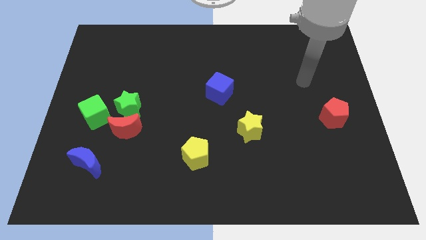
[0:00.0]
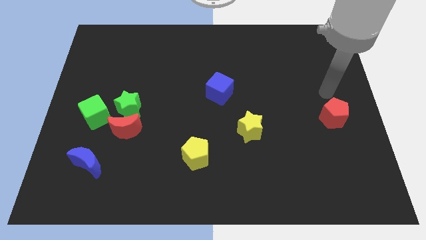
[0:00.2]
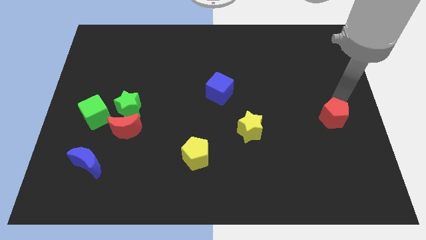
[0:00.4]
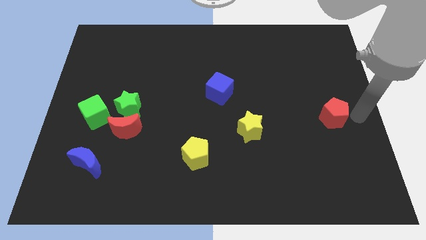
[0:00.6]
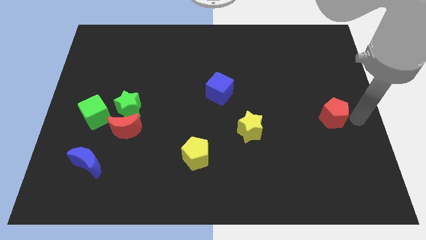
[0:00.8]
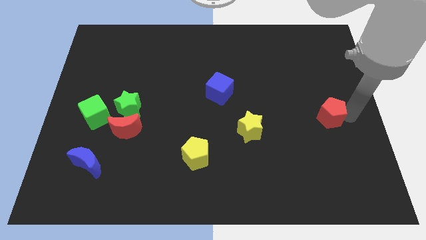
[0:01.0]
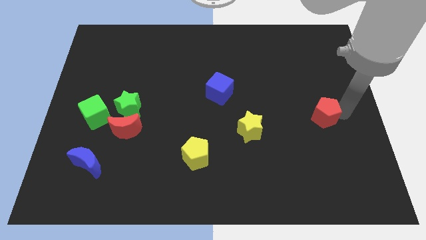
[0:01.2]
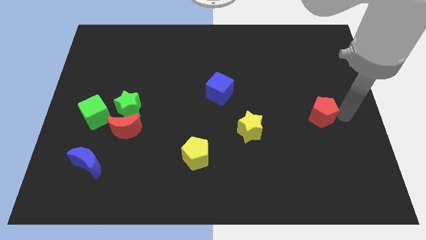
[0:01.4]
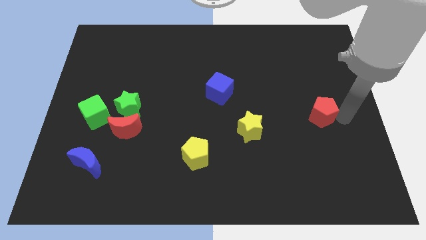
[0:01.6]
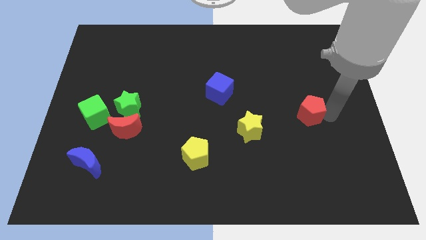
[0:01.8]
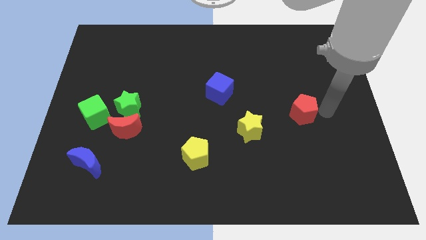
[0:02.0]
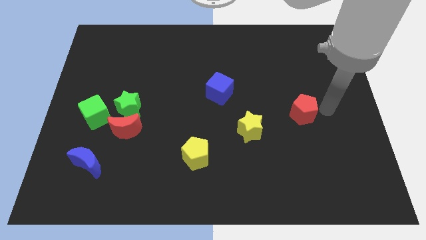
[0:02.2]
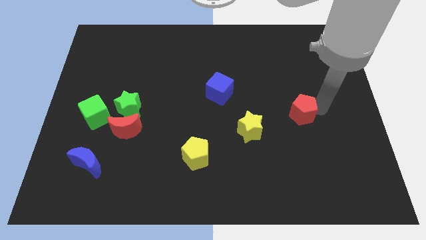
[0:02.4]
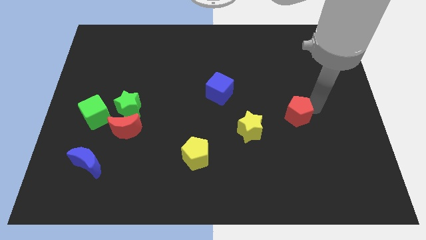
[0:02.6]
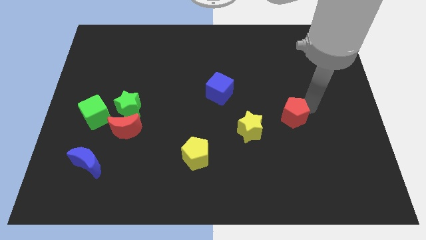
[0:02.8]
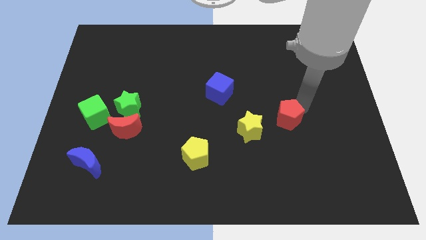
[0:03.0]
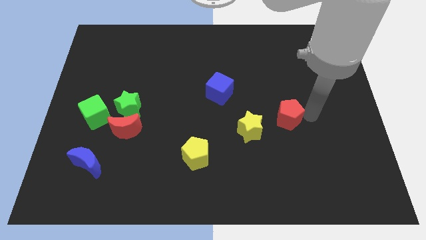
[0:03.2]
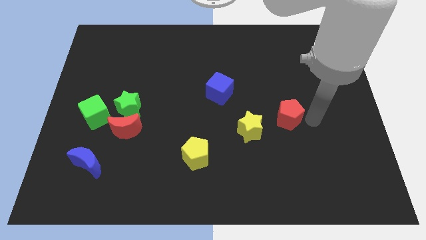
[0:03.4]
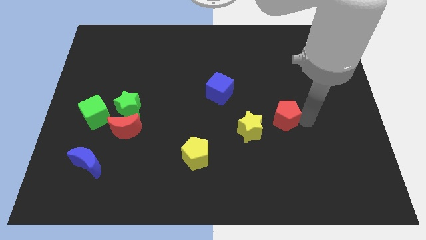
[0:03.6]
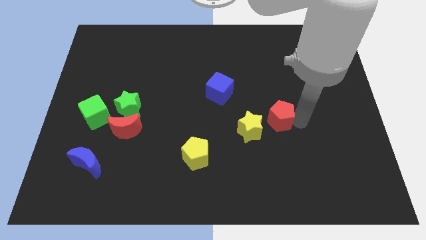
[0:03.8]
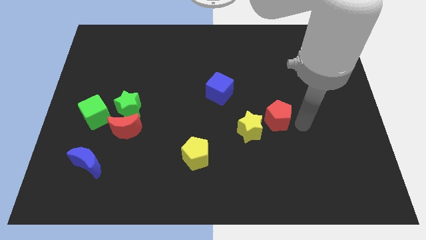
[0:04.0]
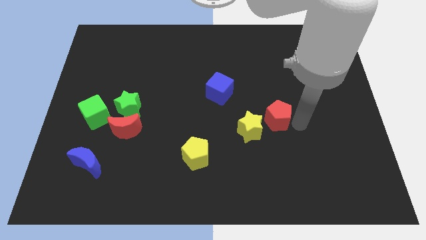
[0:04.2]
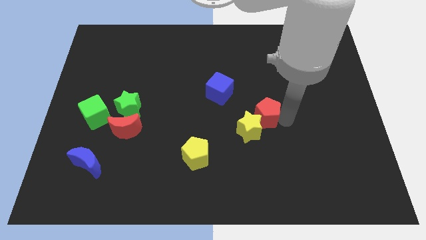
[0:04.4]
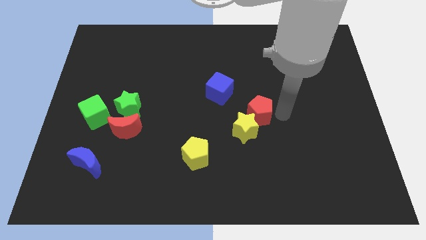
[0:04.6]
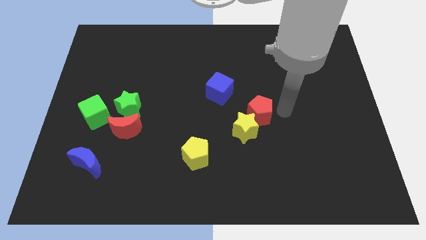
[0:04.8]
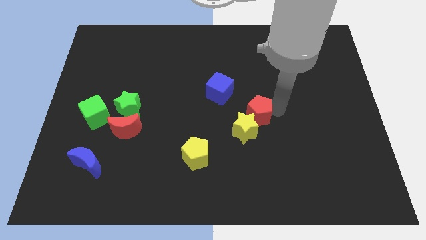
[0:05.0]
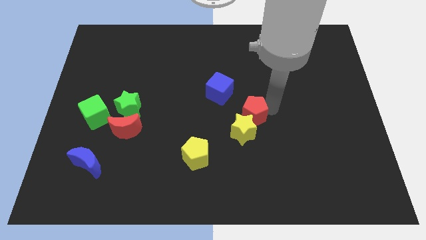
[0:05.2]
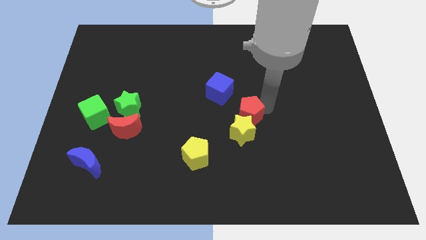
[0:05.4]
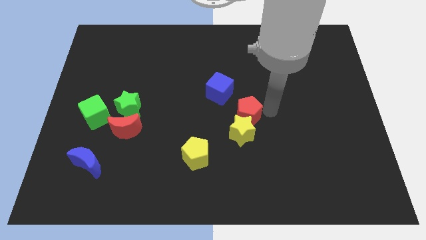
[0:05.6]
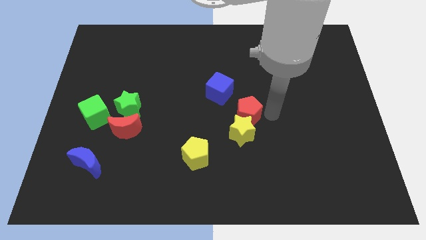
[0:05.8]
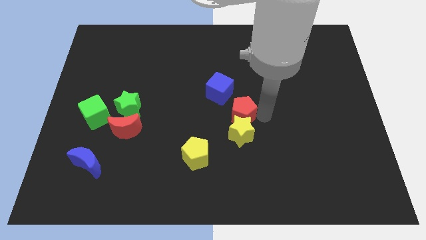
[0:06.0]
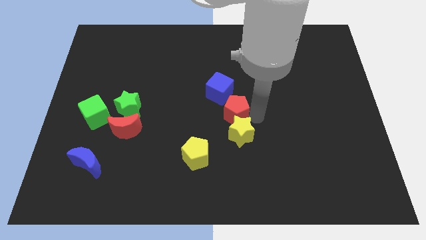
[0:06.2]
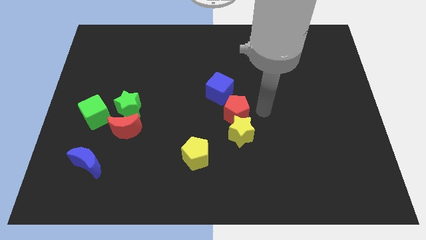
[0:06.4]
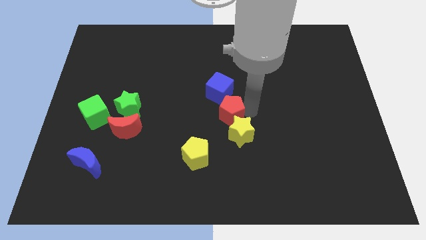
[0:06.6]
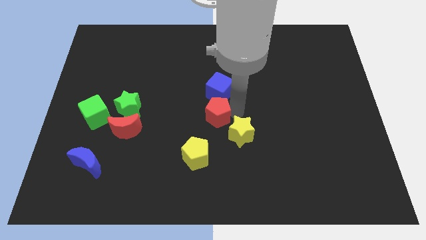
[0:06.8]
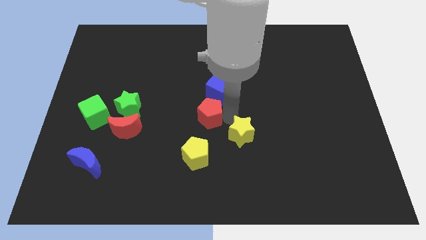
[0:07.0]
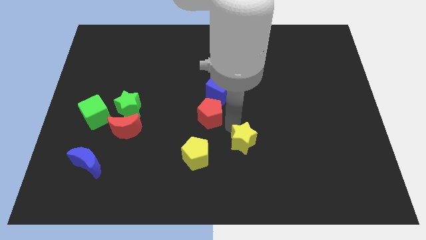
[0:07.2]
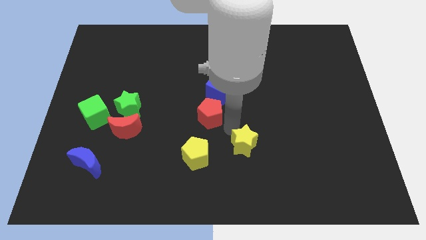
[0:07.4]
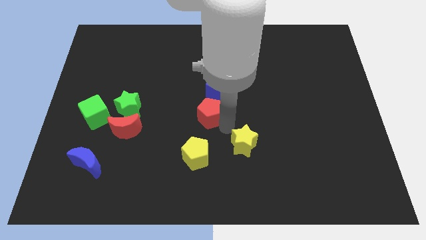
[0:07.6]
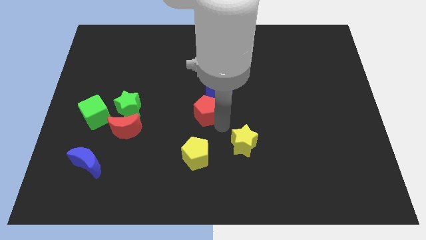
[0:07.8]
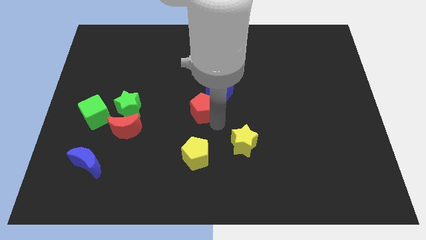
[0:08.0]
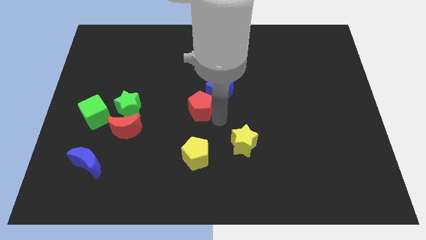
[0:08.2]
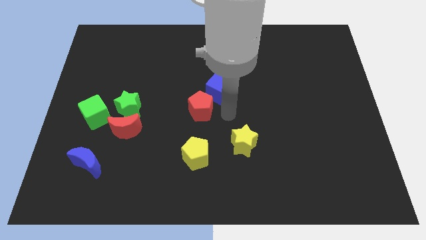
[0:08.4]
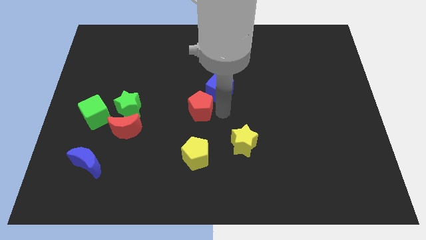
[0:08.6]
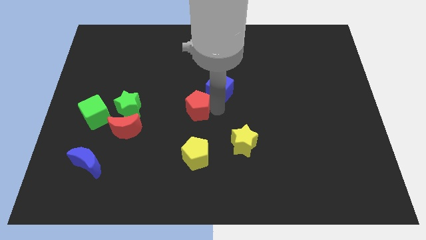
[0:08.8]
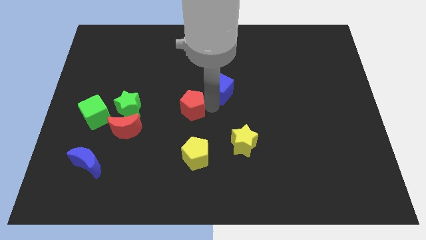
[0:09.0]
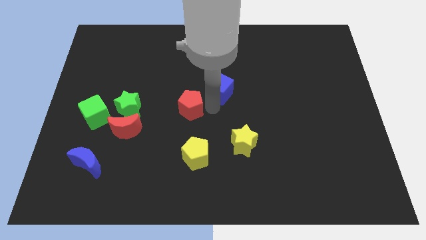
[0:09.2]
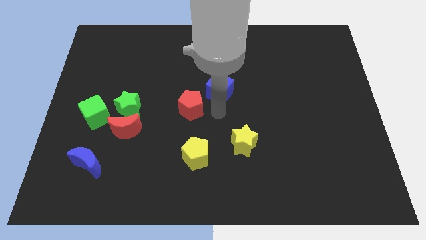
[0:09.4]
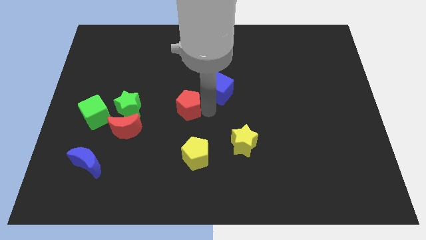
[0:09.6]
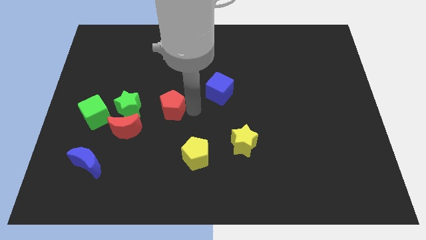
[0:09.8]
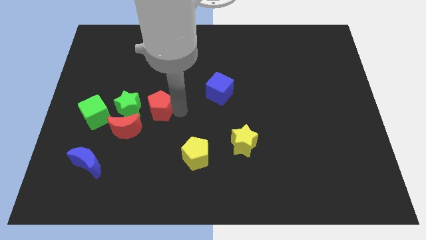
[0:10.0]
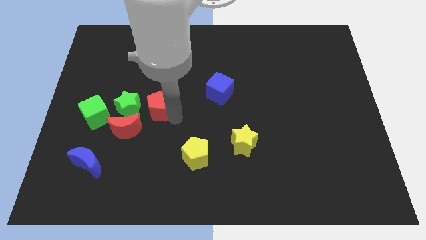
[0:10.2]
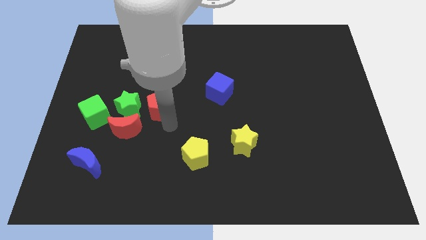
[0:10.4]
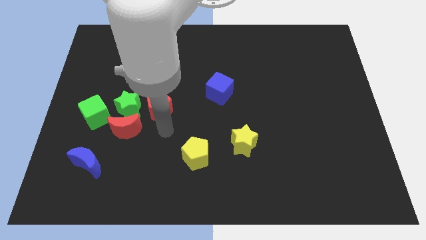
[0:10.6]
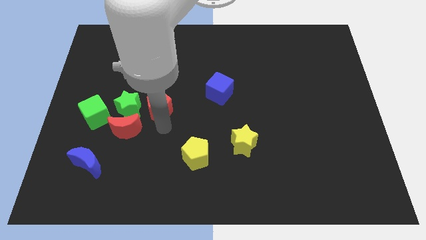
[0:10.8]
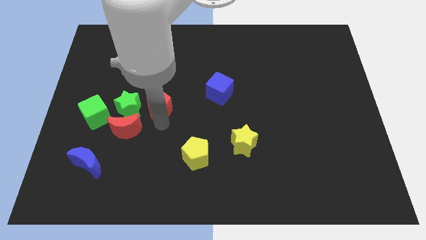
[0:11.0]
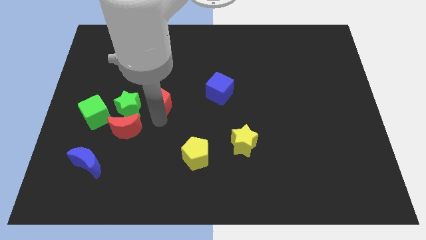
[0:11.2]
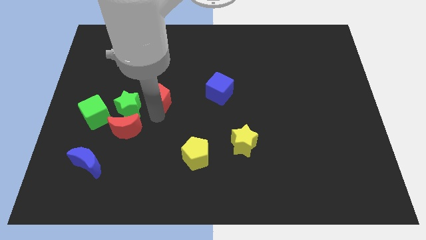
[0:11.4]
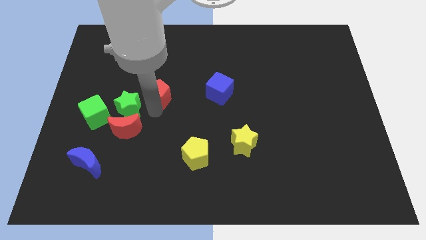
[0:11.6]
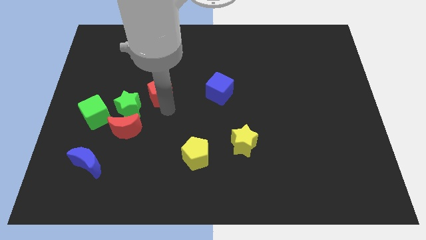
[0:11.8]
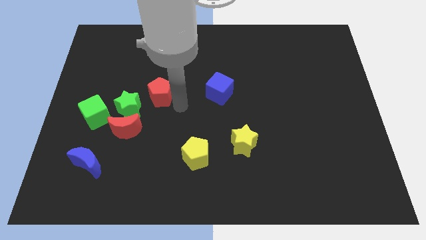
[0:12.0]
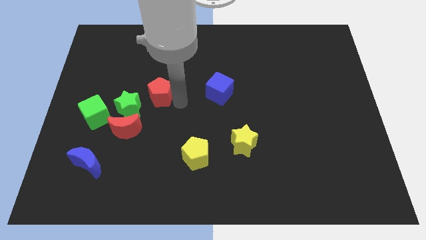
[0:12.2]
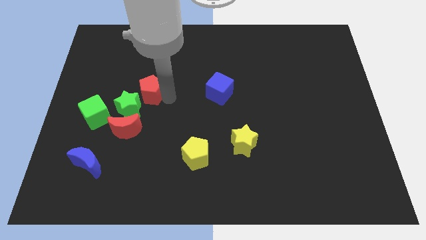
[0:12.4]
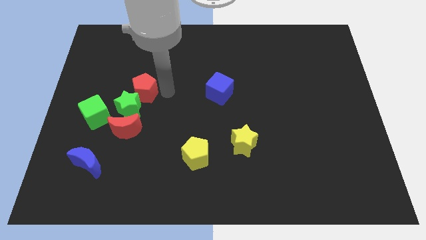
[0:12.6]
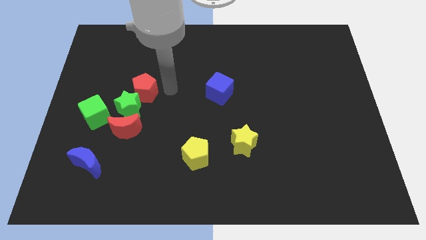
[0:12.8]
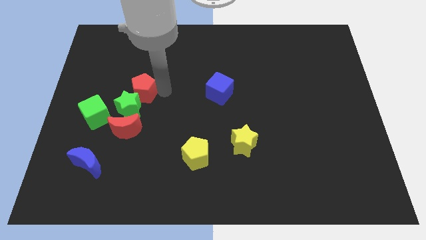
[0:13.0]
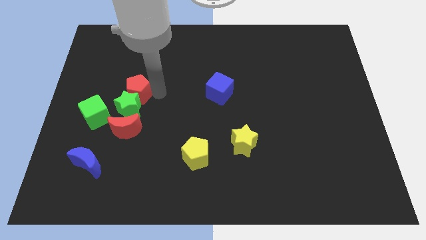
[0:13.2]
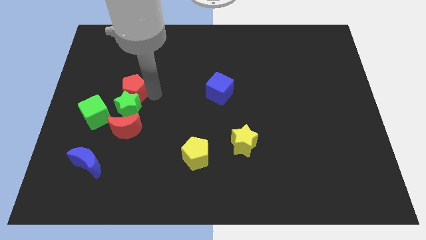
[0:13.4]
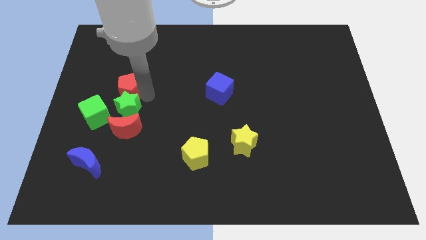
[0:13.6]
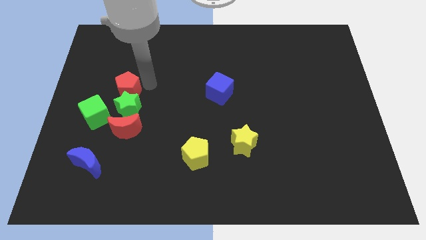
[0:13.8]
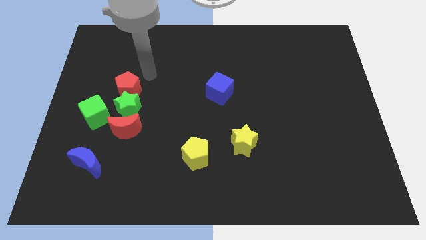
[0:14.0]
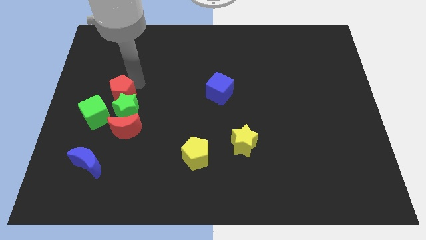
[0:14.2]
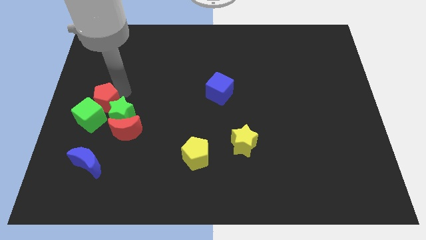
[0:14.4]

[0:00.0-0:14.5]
move the red pentagon next to the green cube
